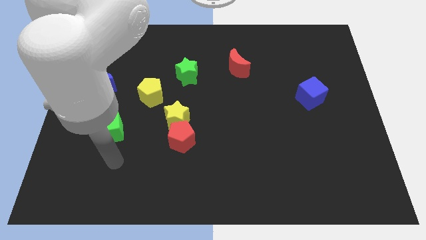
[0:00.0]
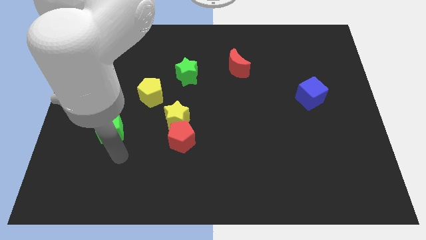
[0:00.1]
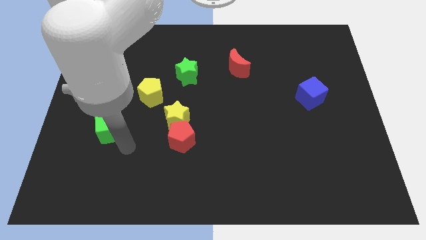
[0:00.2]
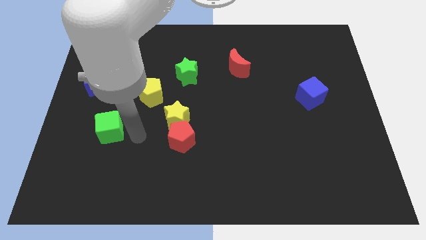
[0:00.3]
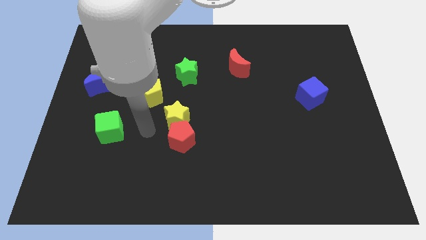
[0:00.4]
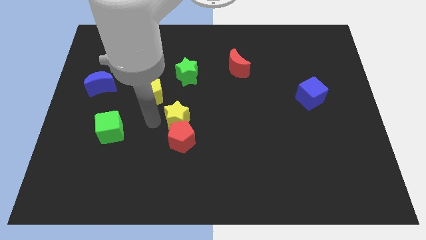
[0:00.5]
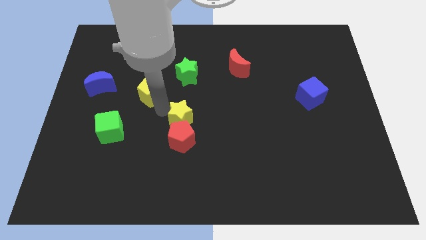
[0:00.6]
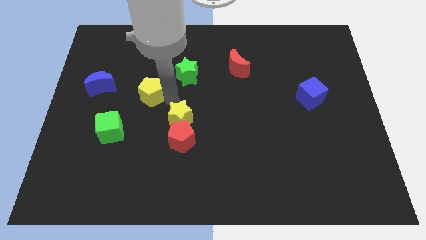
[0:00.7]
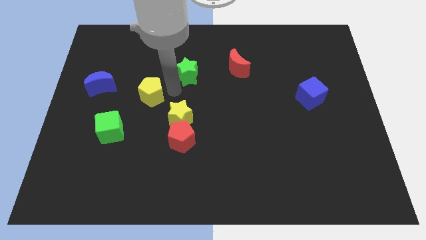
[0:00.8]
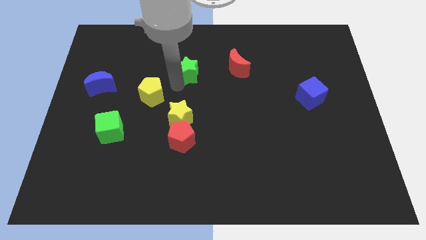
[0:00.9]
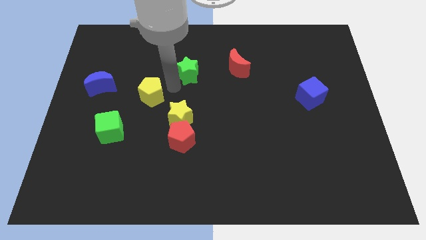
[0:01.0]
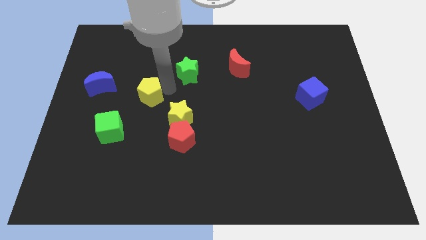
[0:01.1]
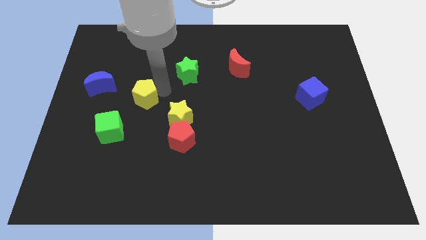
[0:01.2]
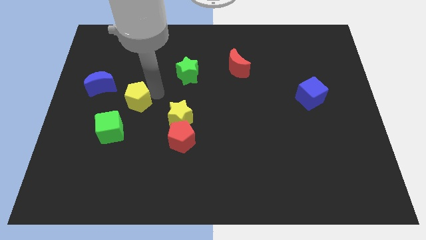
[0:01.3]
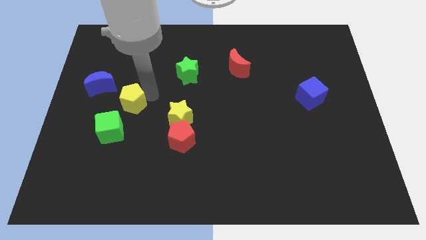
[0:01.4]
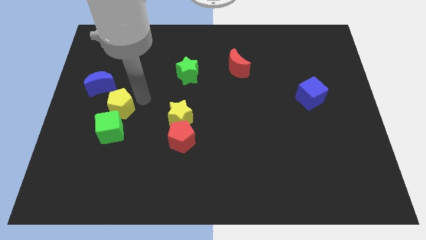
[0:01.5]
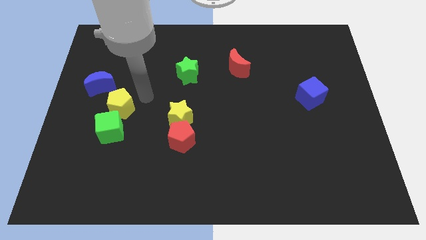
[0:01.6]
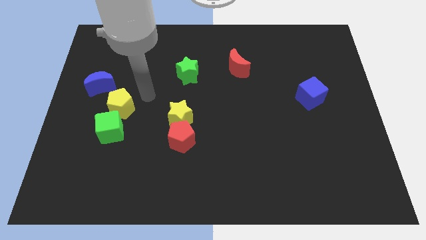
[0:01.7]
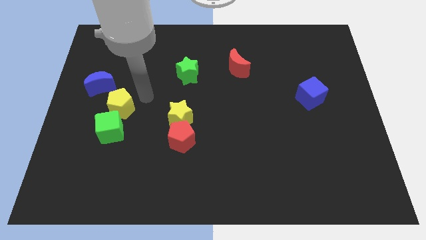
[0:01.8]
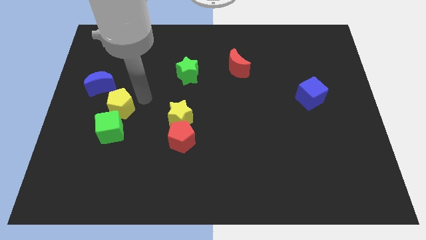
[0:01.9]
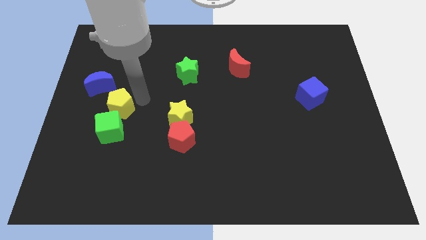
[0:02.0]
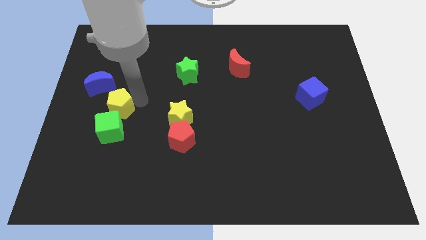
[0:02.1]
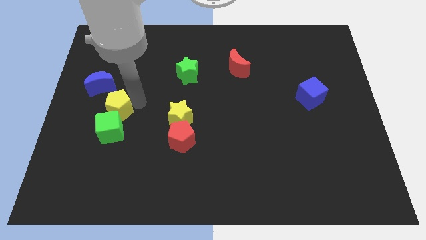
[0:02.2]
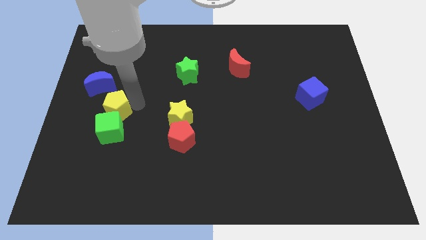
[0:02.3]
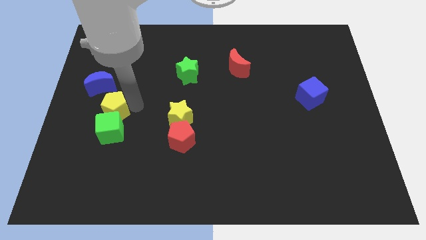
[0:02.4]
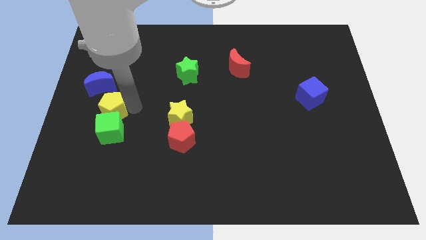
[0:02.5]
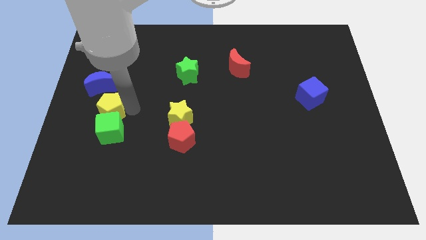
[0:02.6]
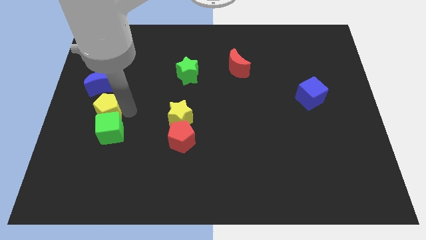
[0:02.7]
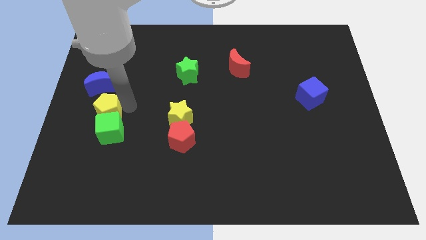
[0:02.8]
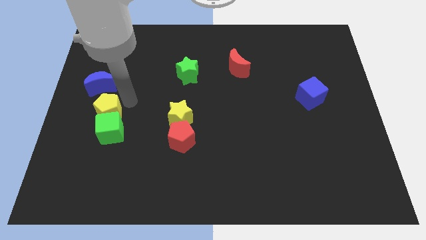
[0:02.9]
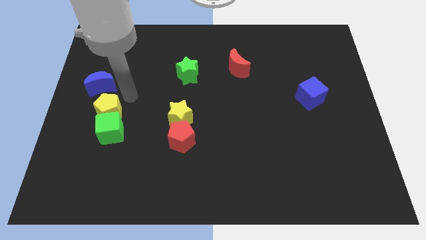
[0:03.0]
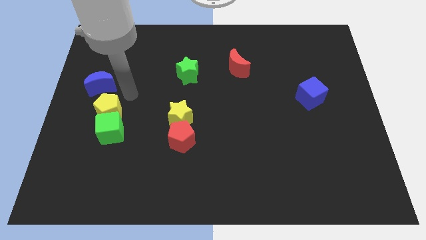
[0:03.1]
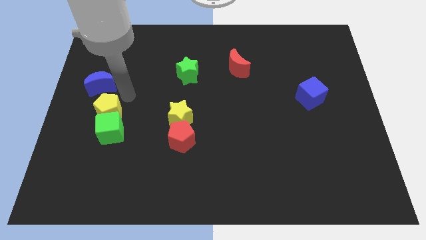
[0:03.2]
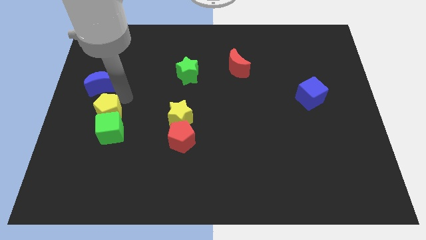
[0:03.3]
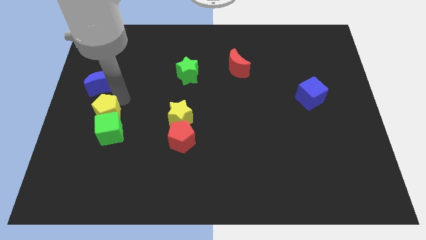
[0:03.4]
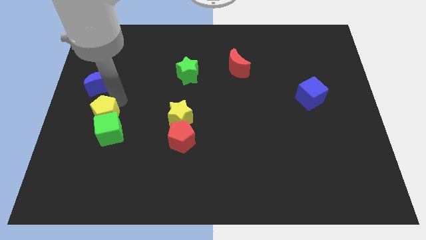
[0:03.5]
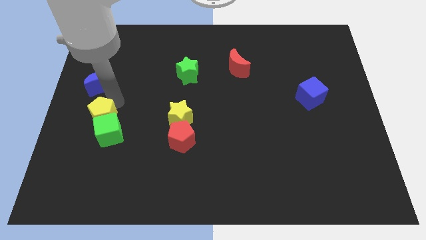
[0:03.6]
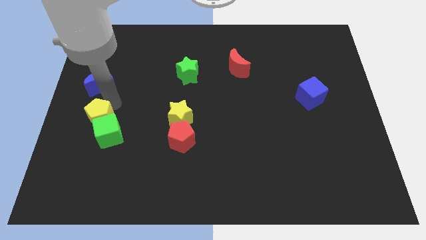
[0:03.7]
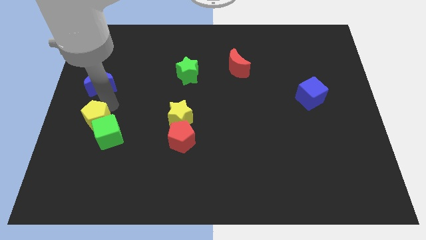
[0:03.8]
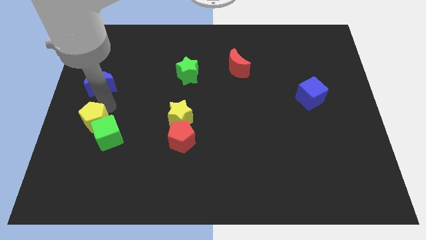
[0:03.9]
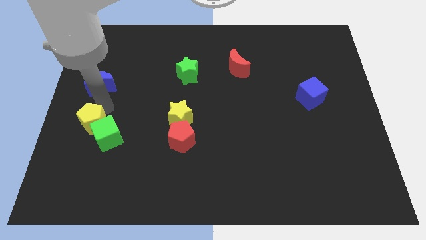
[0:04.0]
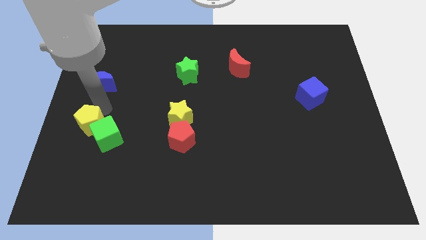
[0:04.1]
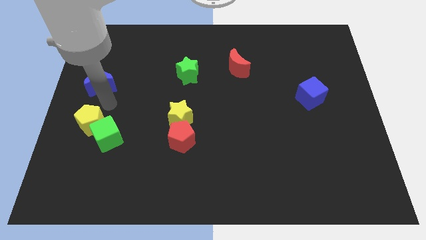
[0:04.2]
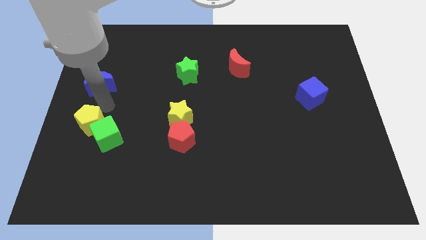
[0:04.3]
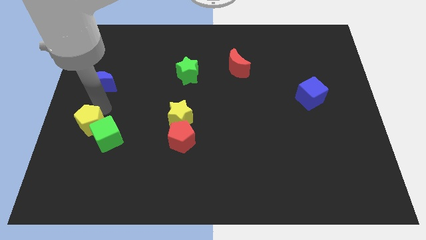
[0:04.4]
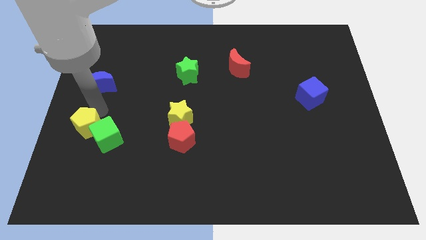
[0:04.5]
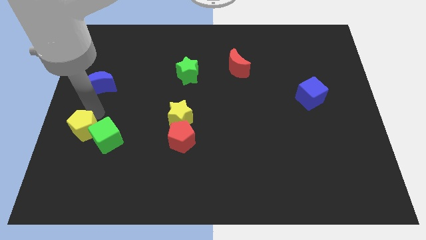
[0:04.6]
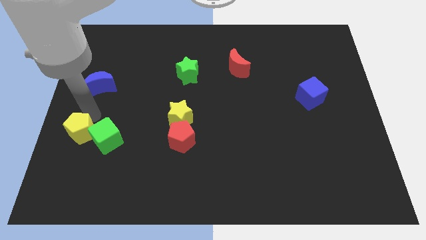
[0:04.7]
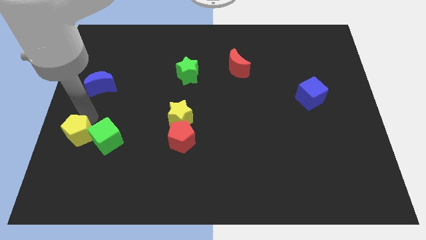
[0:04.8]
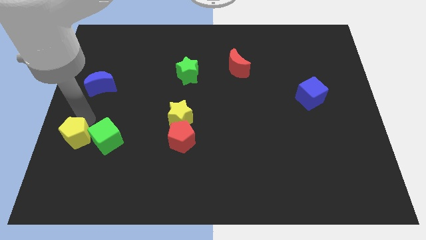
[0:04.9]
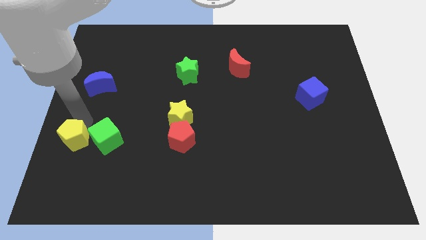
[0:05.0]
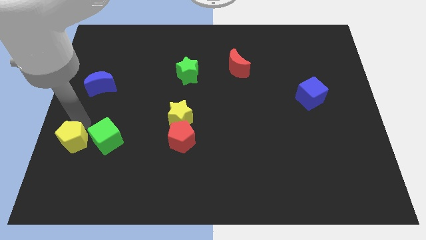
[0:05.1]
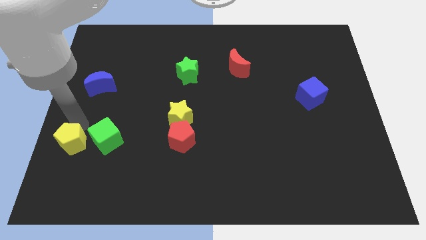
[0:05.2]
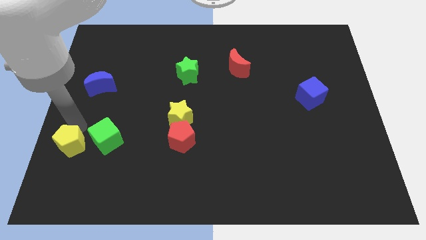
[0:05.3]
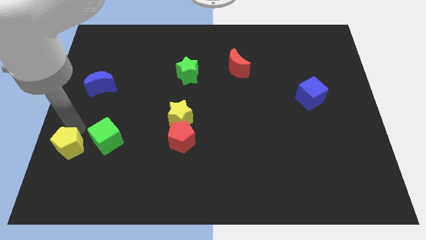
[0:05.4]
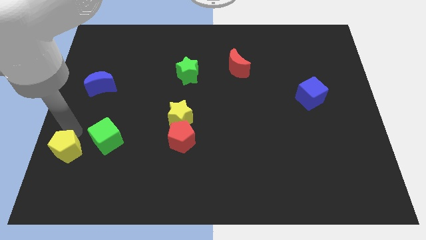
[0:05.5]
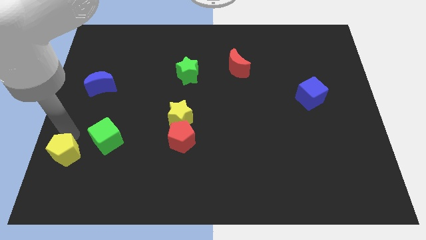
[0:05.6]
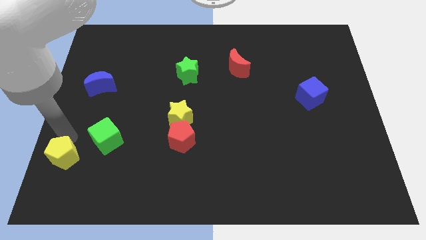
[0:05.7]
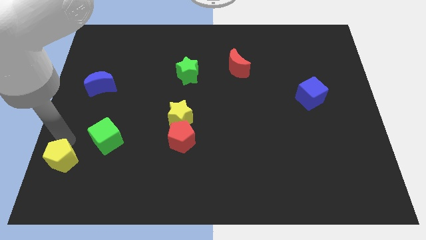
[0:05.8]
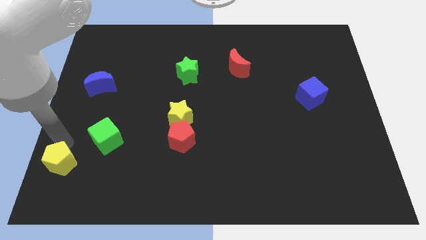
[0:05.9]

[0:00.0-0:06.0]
slide the yellow pentagon to the lower left corner
